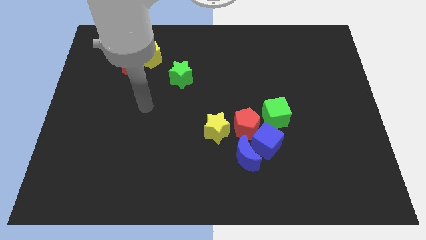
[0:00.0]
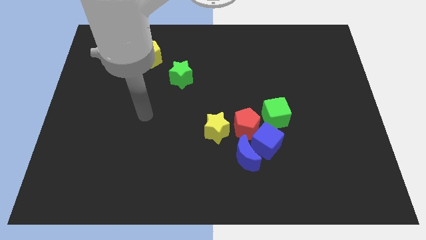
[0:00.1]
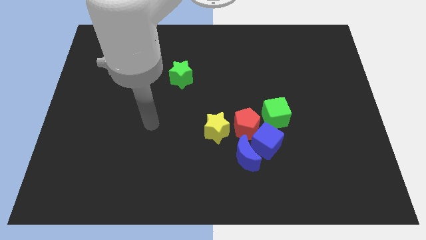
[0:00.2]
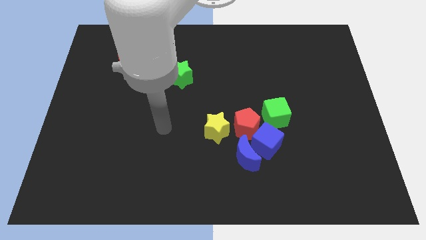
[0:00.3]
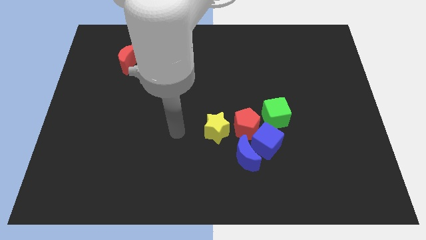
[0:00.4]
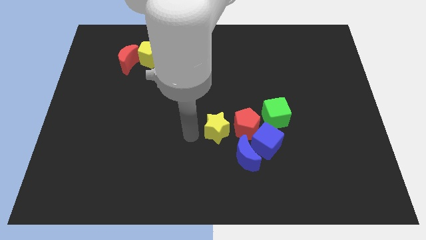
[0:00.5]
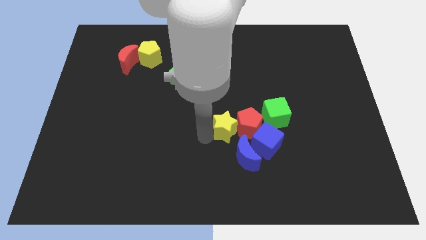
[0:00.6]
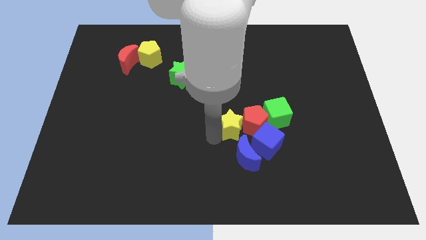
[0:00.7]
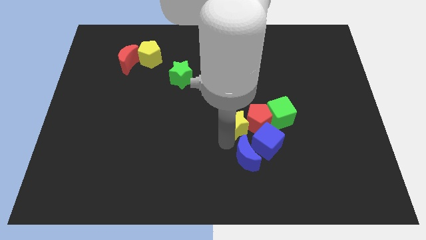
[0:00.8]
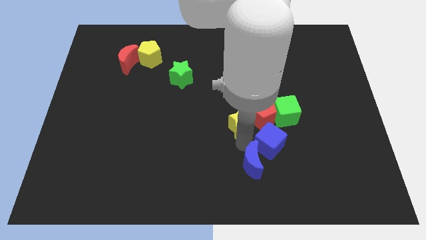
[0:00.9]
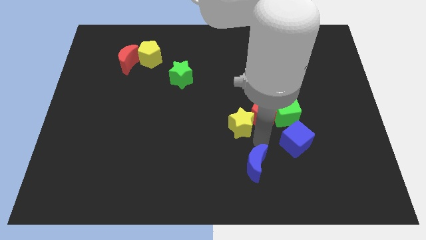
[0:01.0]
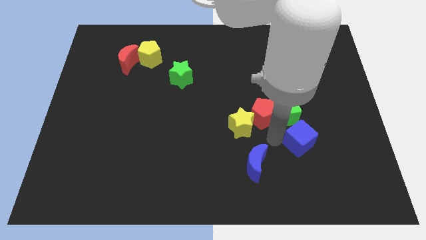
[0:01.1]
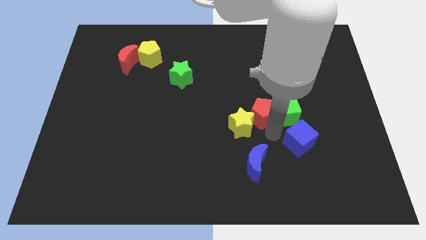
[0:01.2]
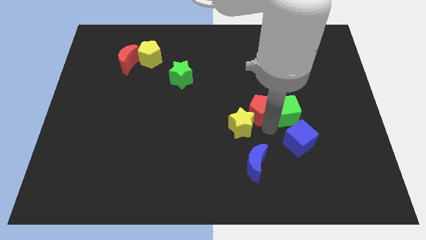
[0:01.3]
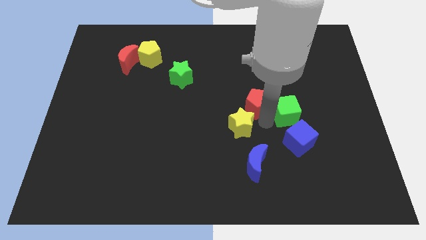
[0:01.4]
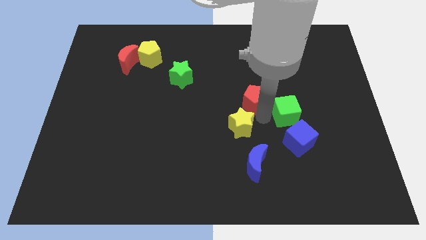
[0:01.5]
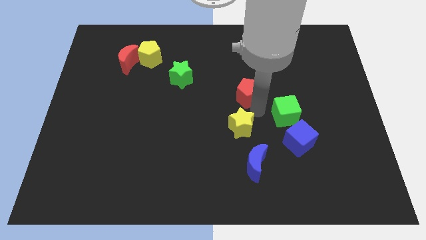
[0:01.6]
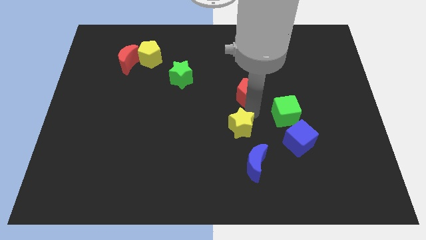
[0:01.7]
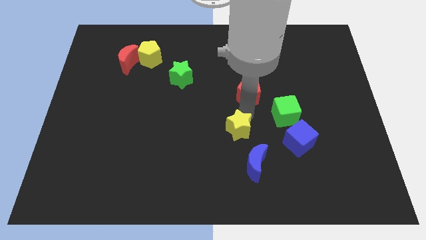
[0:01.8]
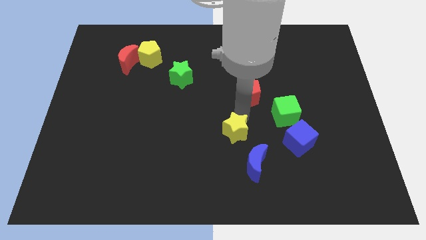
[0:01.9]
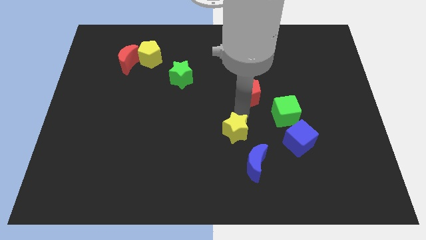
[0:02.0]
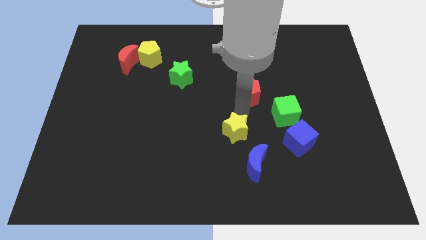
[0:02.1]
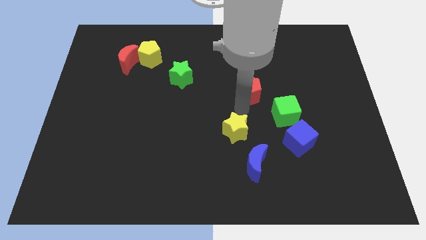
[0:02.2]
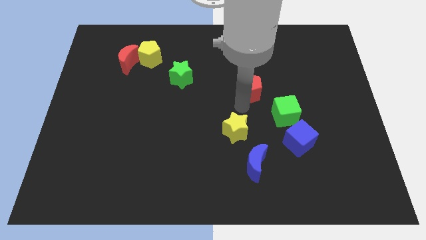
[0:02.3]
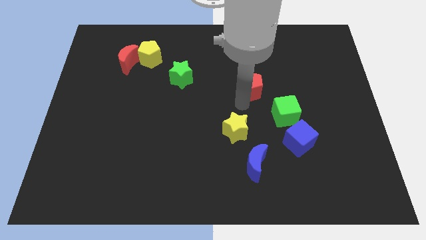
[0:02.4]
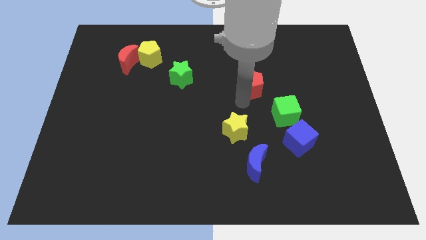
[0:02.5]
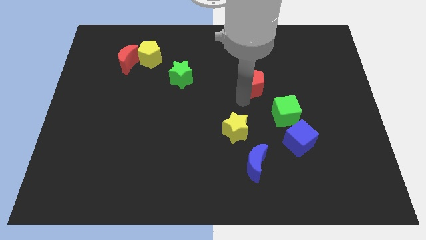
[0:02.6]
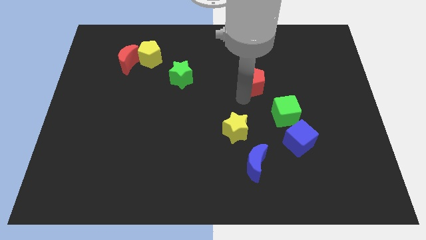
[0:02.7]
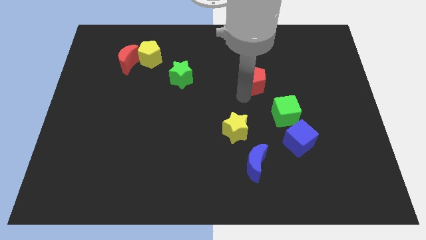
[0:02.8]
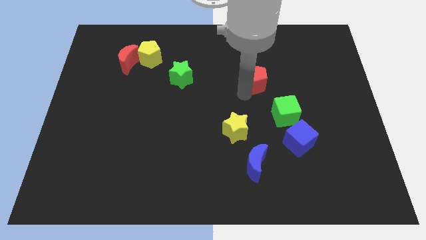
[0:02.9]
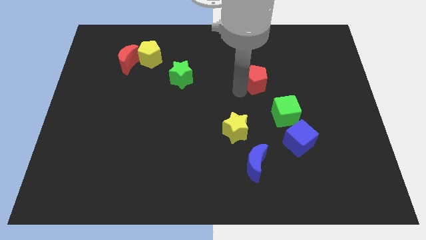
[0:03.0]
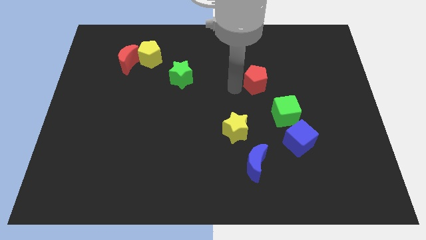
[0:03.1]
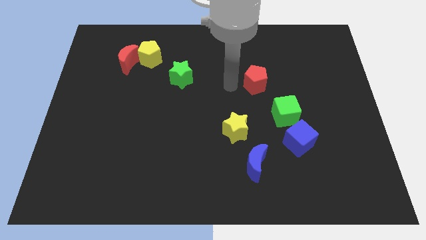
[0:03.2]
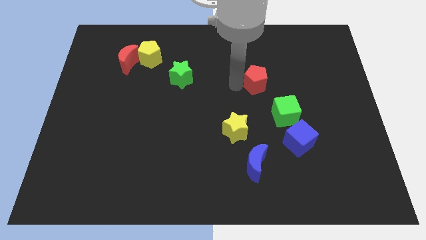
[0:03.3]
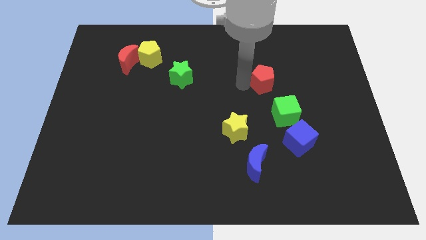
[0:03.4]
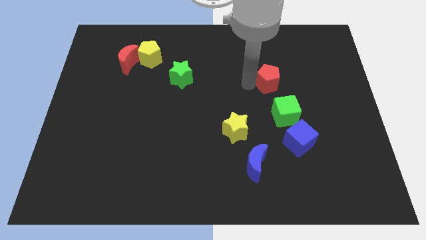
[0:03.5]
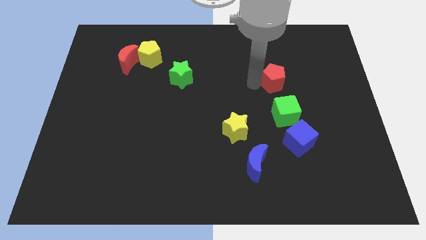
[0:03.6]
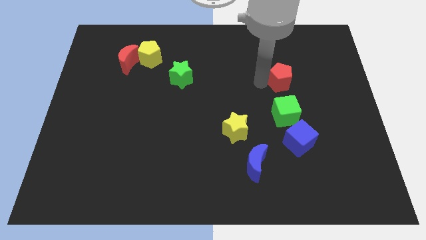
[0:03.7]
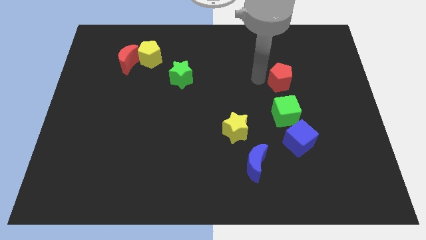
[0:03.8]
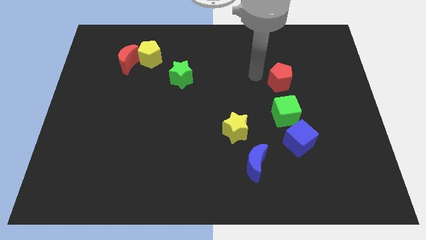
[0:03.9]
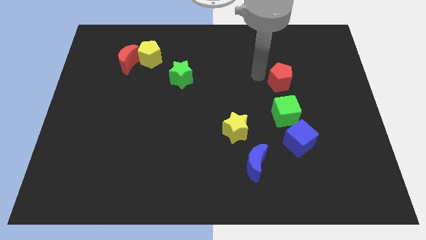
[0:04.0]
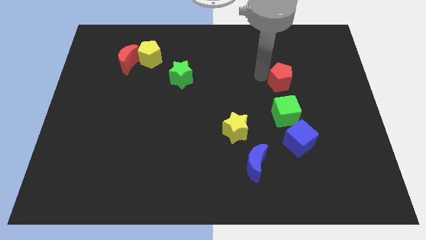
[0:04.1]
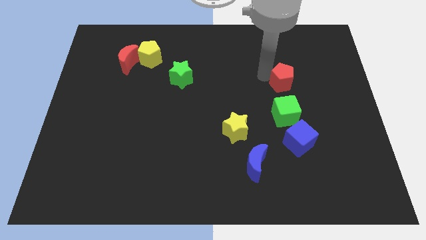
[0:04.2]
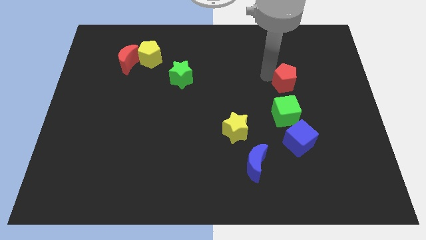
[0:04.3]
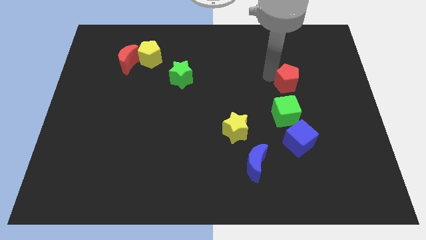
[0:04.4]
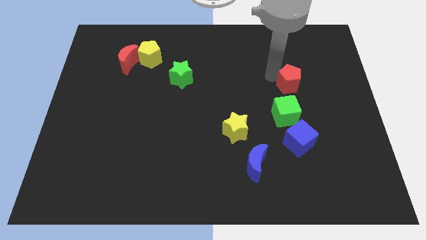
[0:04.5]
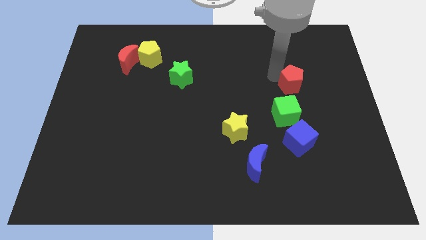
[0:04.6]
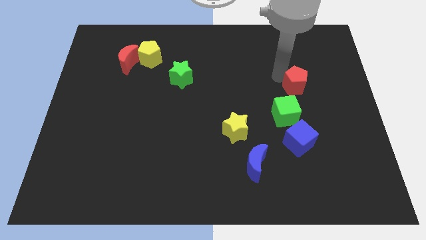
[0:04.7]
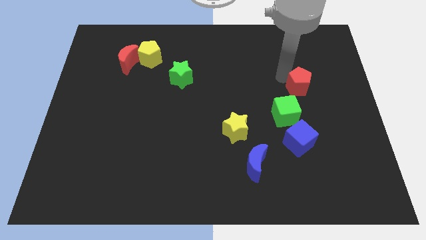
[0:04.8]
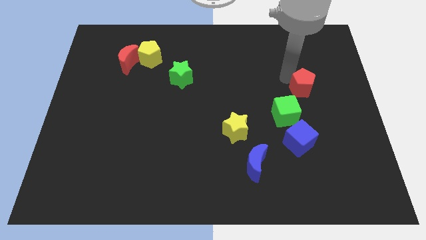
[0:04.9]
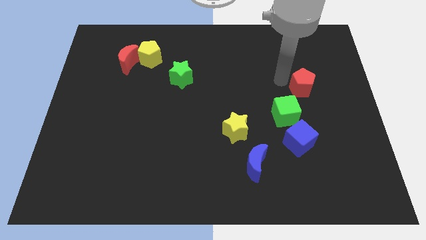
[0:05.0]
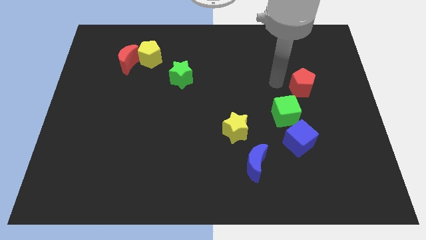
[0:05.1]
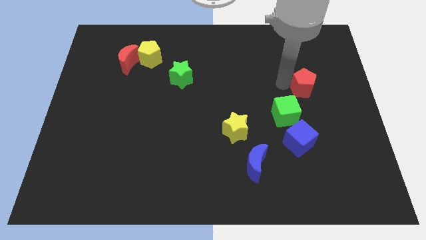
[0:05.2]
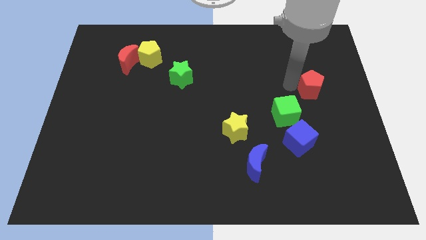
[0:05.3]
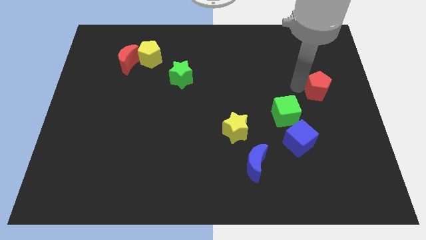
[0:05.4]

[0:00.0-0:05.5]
slide the red pentagon to the right side

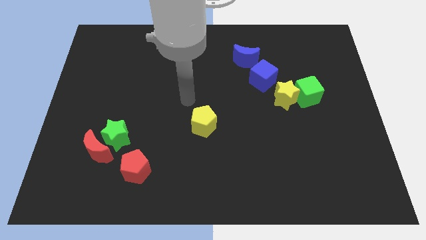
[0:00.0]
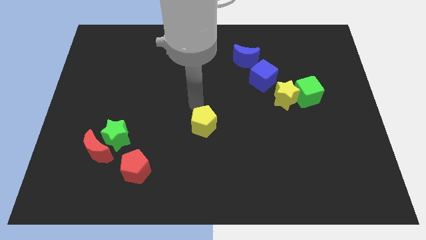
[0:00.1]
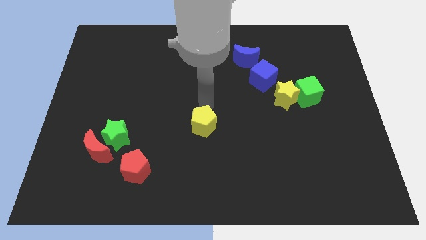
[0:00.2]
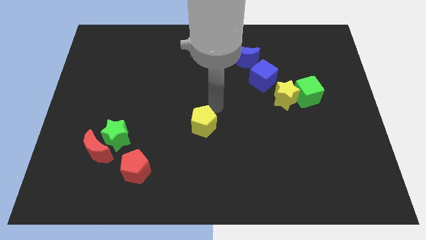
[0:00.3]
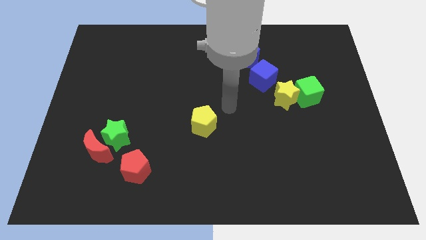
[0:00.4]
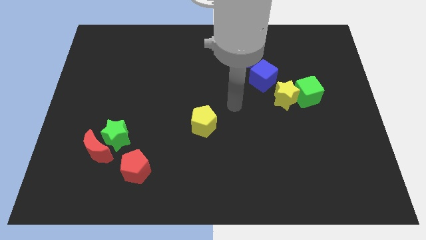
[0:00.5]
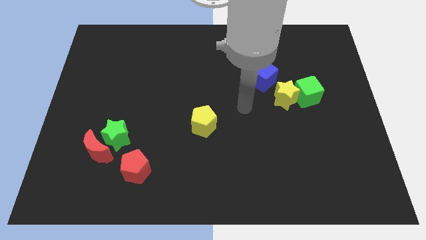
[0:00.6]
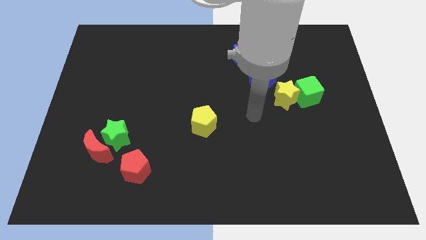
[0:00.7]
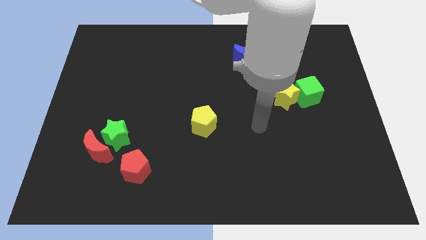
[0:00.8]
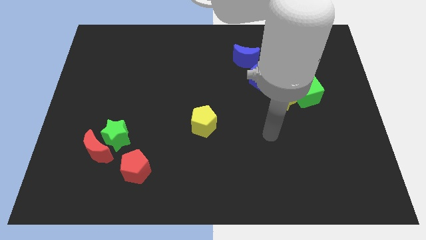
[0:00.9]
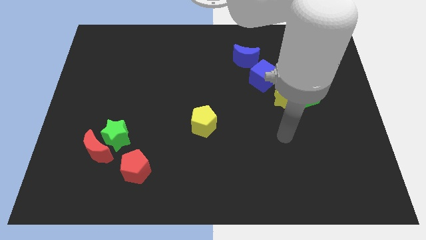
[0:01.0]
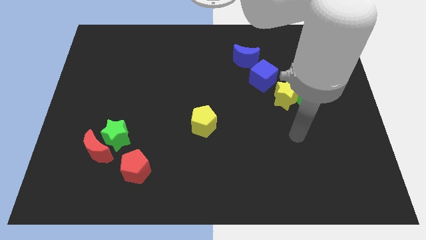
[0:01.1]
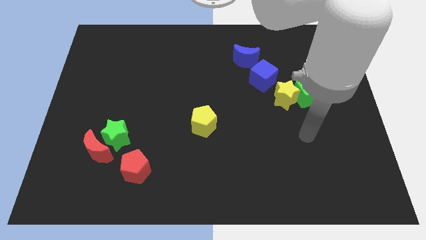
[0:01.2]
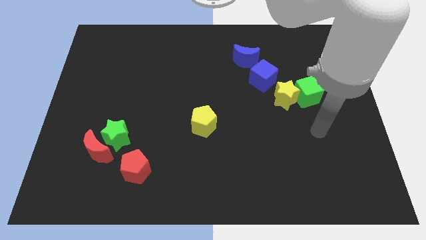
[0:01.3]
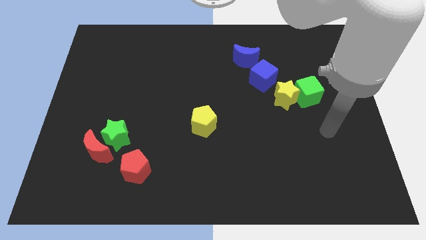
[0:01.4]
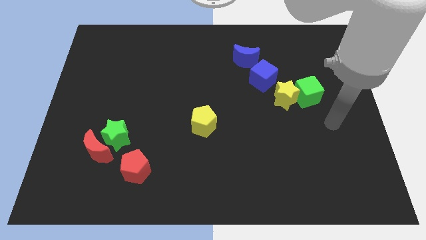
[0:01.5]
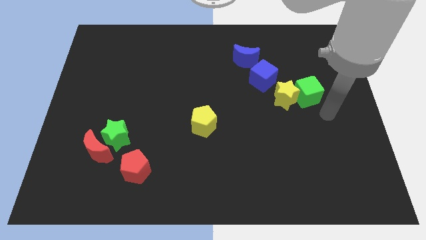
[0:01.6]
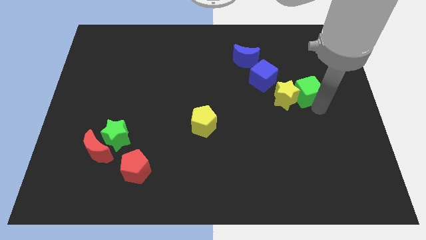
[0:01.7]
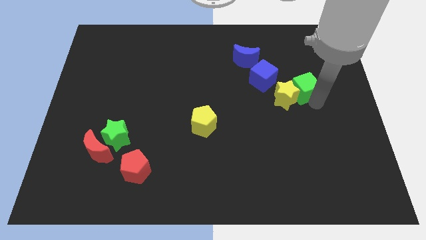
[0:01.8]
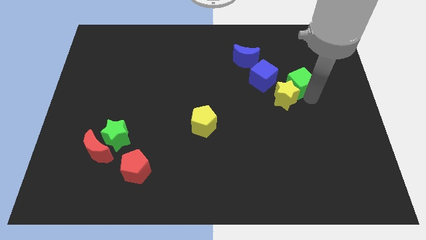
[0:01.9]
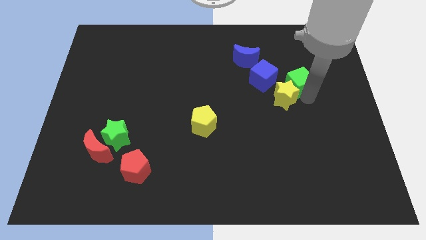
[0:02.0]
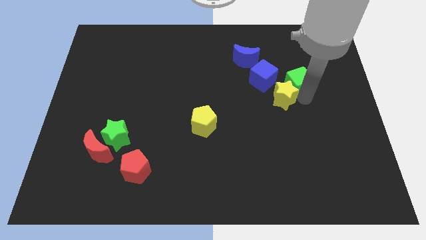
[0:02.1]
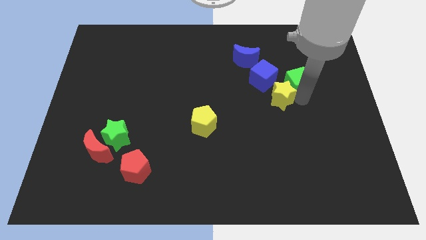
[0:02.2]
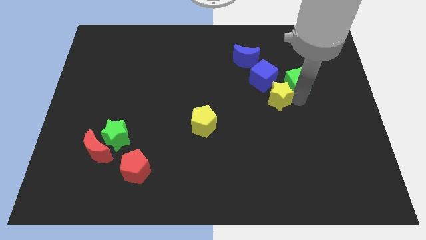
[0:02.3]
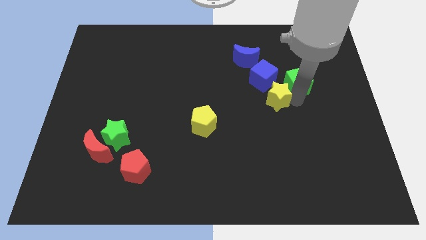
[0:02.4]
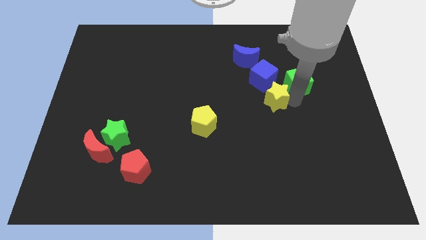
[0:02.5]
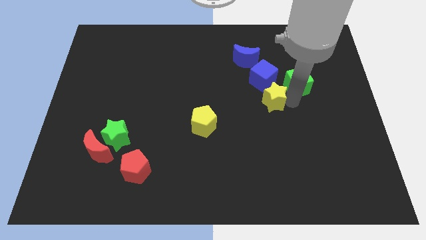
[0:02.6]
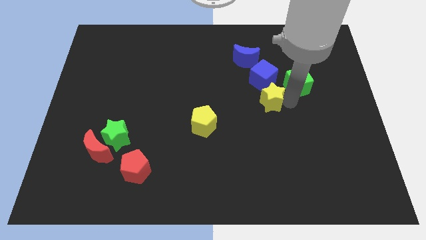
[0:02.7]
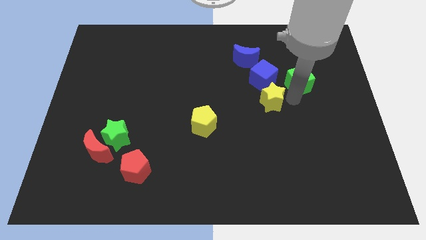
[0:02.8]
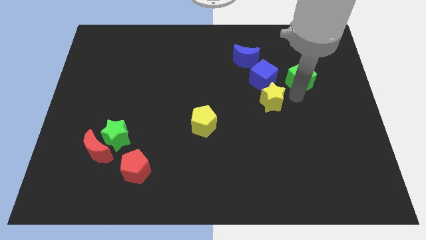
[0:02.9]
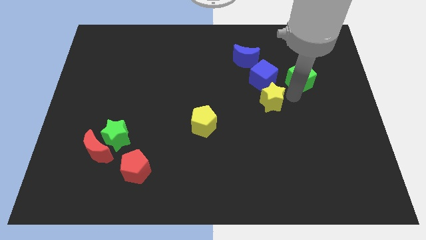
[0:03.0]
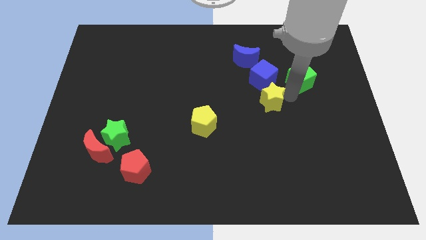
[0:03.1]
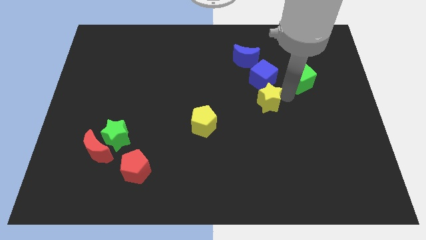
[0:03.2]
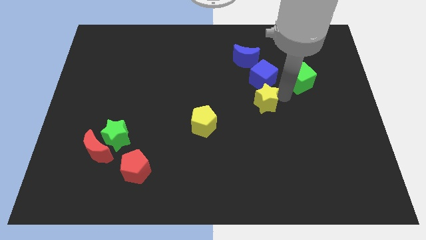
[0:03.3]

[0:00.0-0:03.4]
push the yellow star to the center
